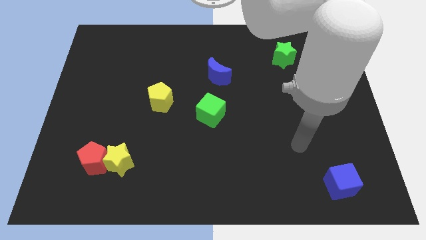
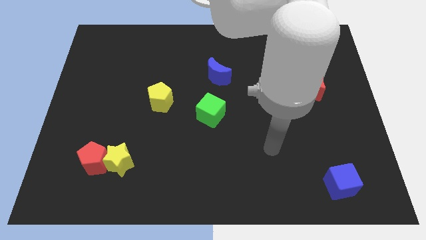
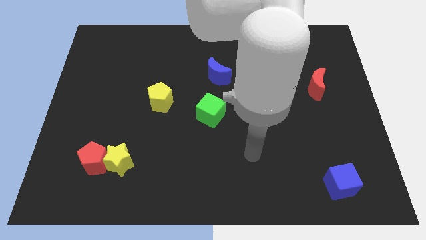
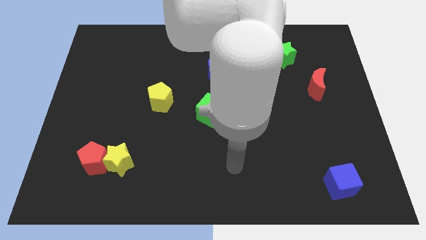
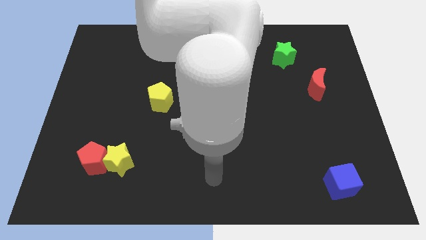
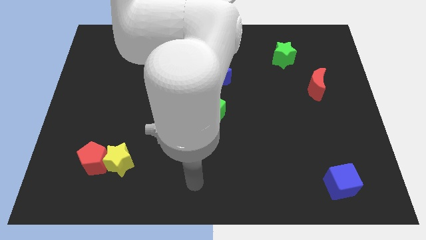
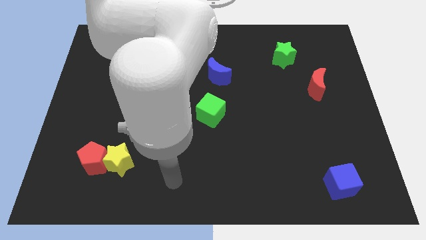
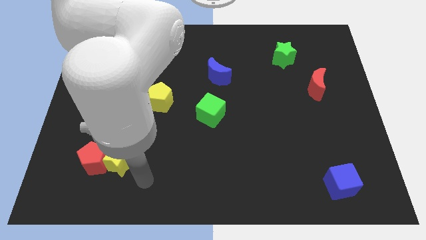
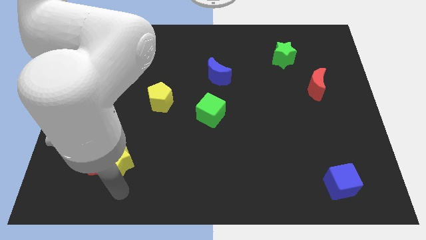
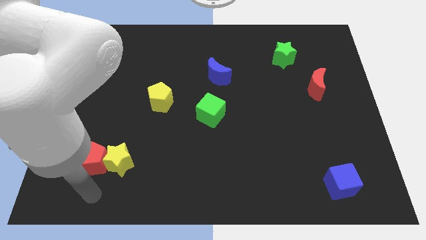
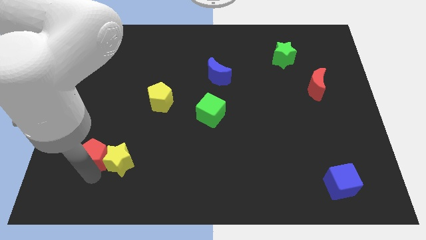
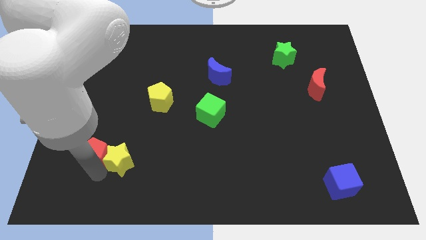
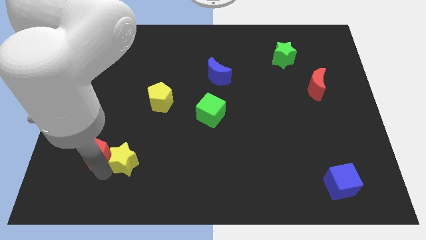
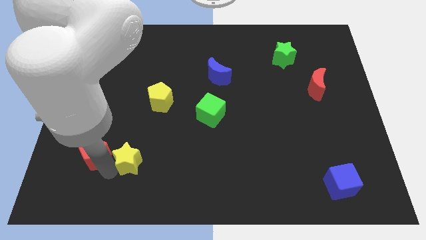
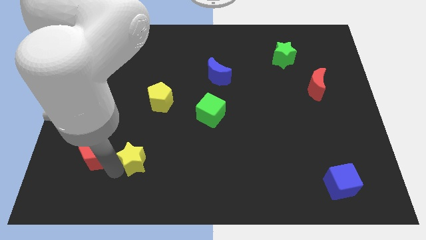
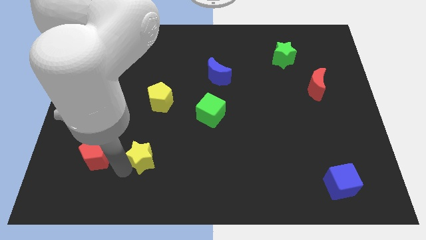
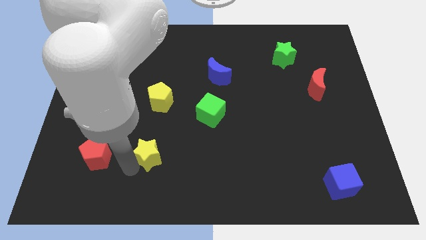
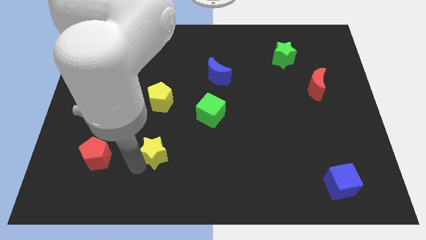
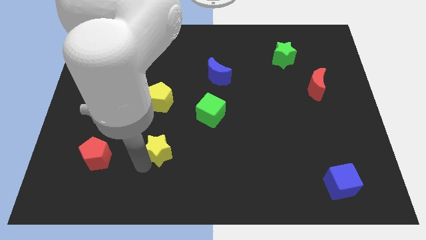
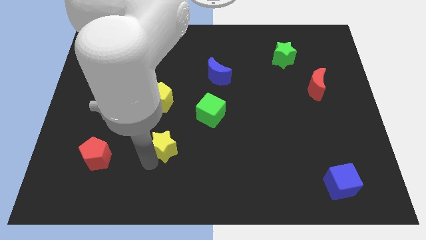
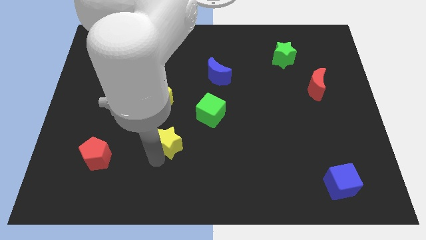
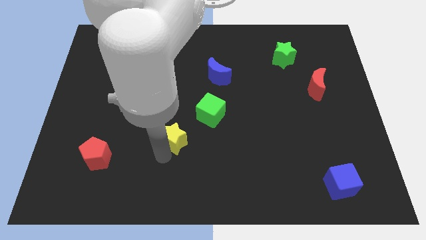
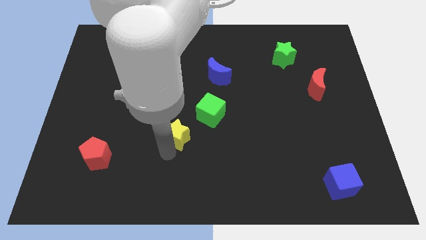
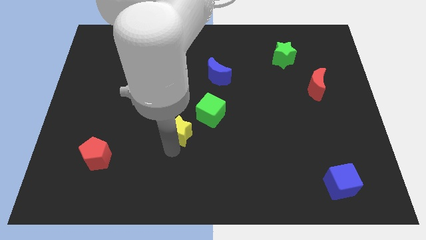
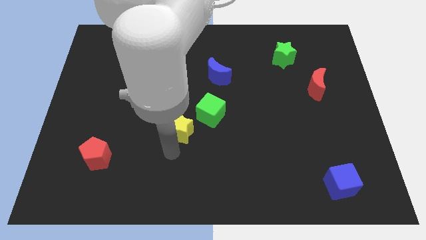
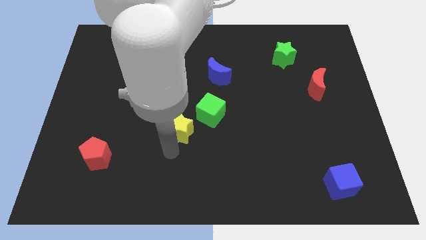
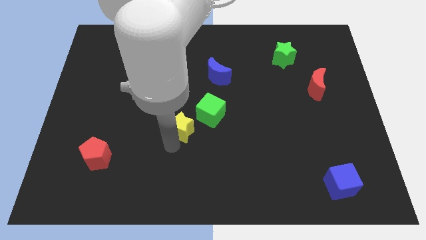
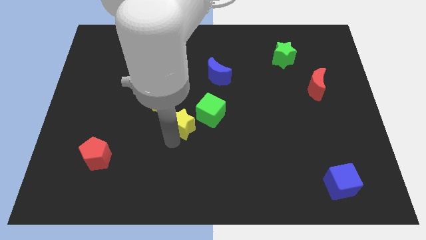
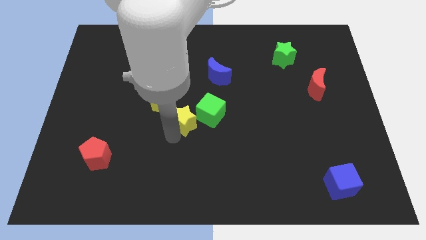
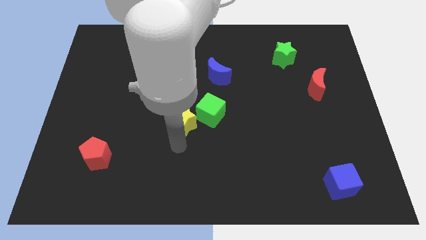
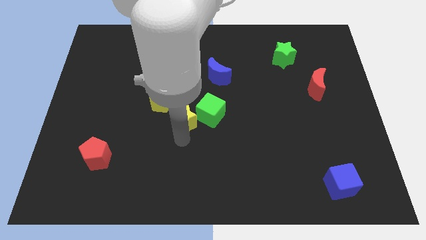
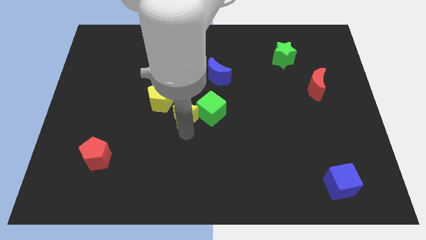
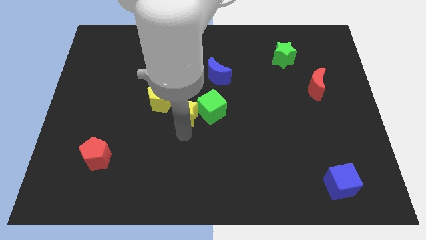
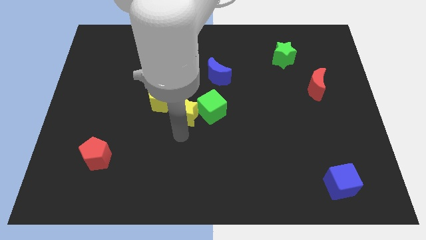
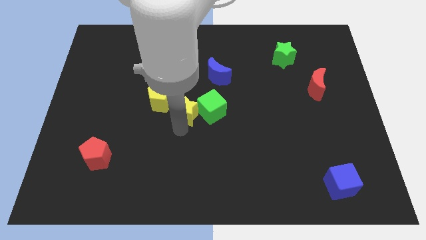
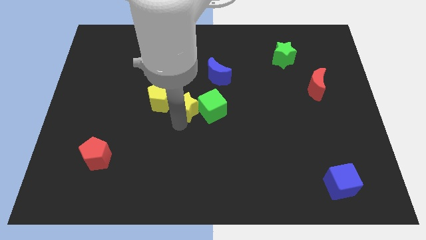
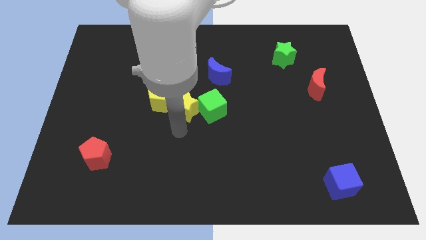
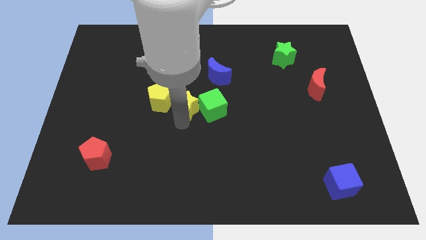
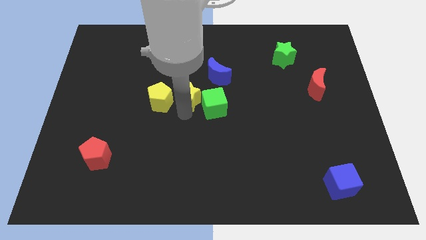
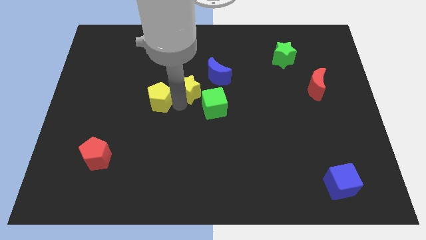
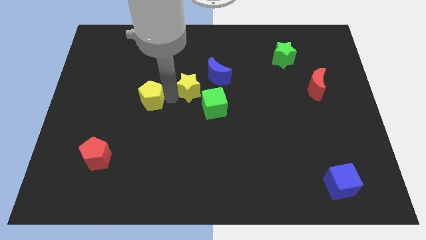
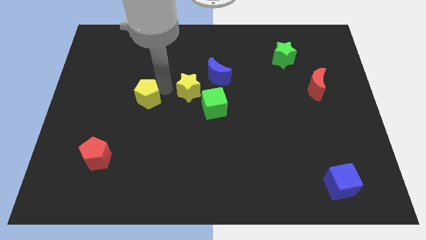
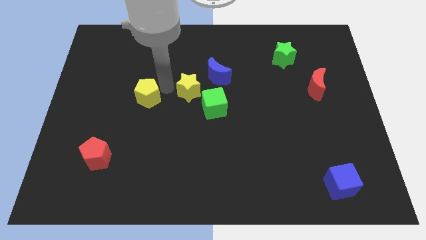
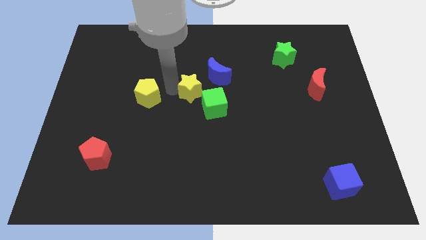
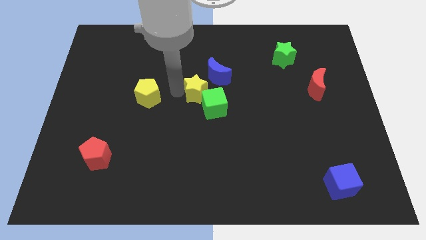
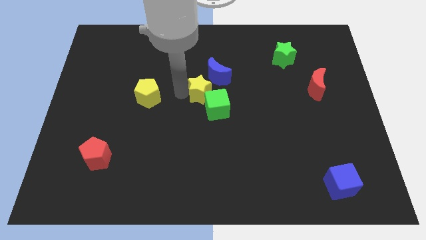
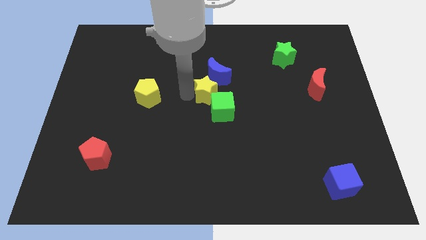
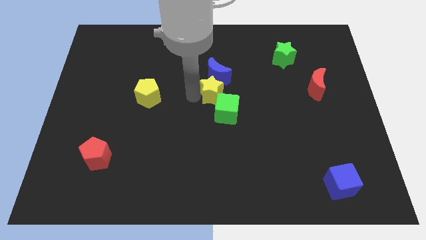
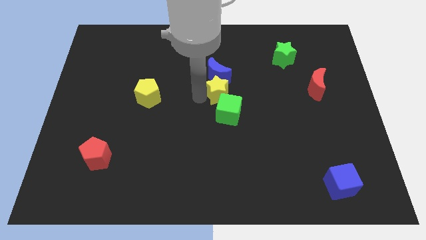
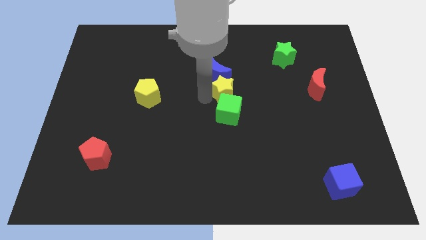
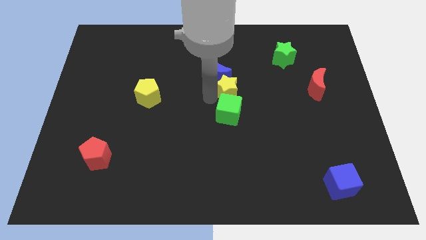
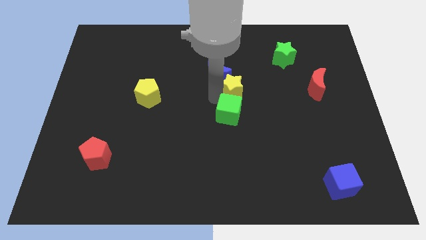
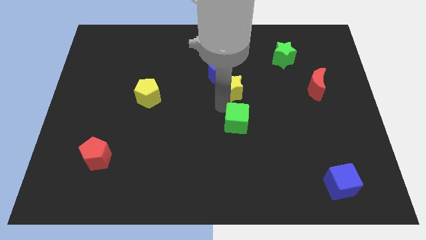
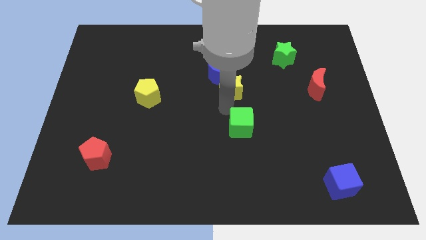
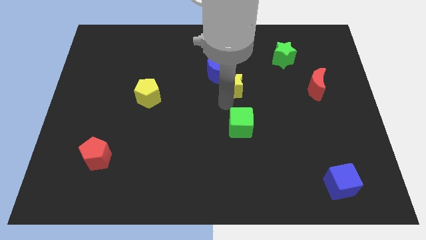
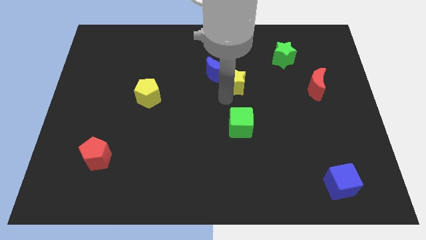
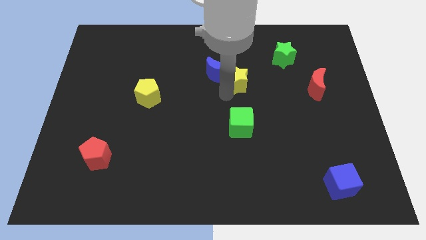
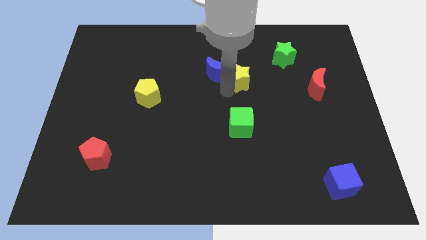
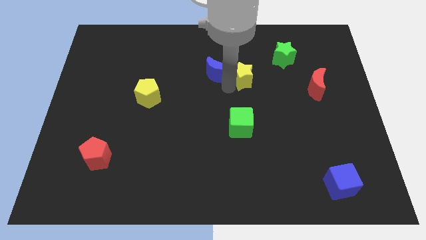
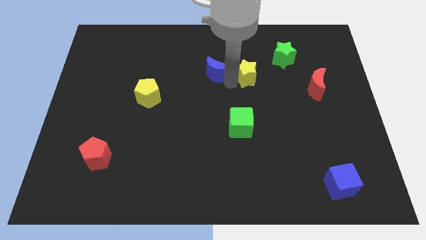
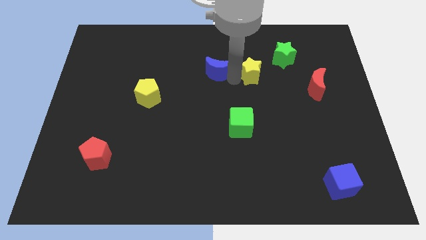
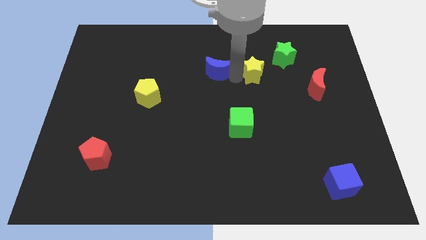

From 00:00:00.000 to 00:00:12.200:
push the yellow star to the left side of the green star
